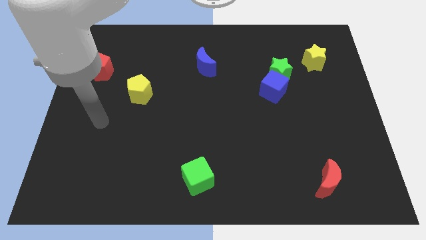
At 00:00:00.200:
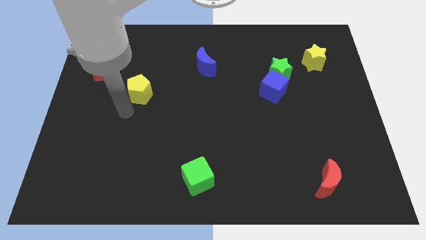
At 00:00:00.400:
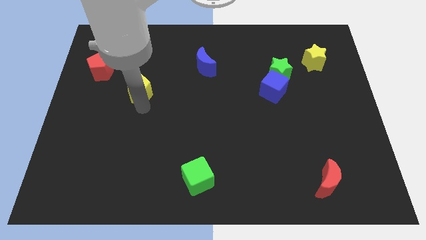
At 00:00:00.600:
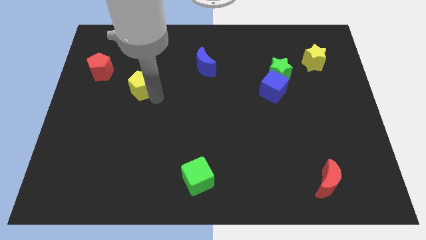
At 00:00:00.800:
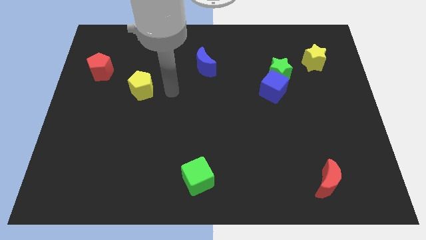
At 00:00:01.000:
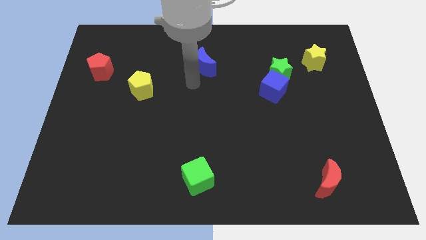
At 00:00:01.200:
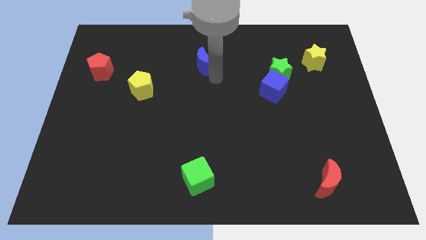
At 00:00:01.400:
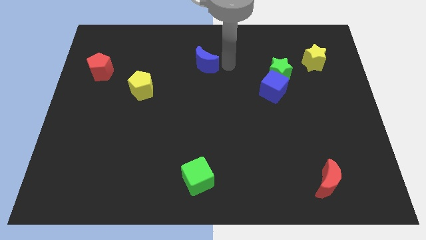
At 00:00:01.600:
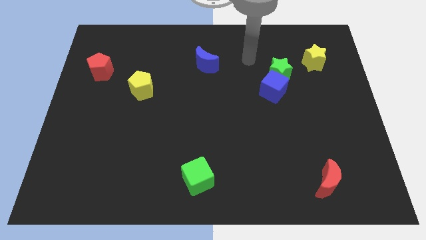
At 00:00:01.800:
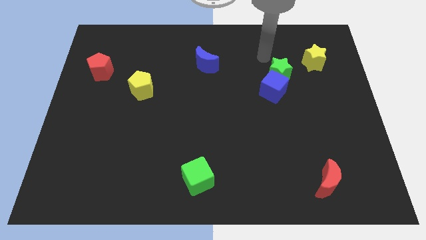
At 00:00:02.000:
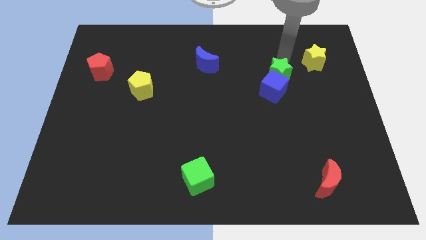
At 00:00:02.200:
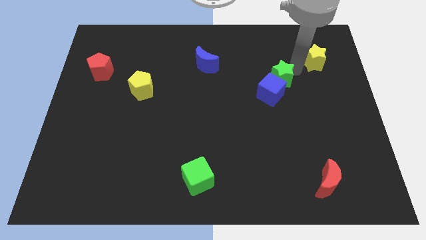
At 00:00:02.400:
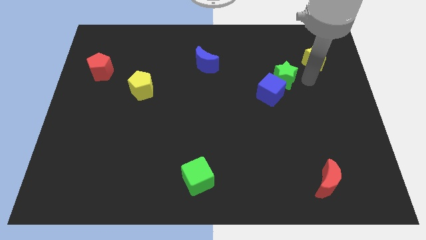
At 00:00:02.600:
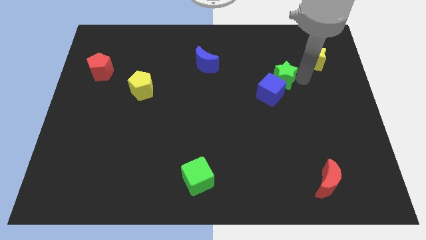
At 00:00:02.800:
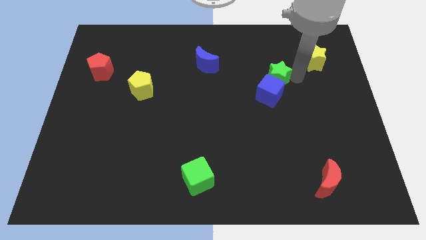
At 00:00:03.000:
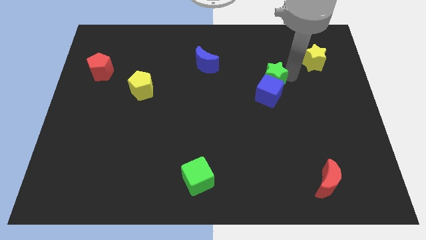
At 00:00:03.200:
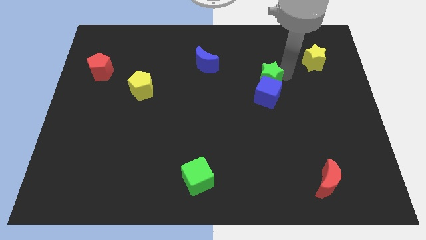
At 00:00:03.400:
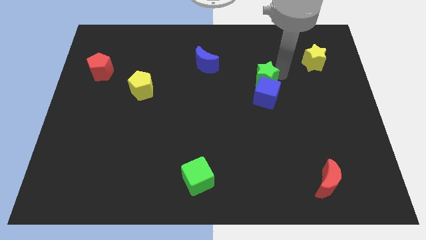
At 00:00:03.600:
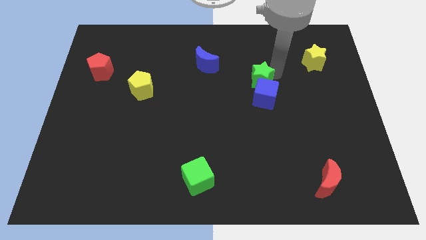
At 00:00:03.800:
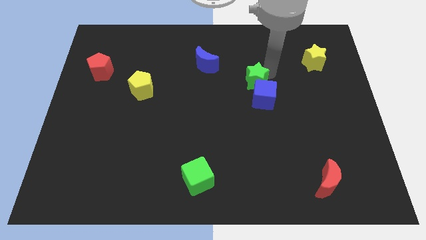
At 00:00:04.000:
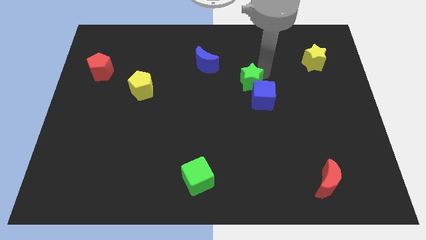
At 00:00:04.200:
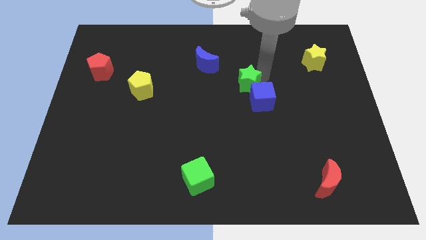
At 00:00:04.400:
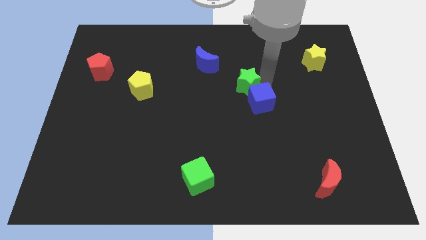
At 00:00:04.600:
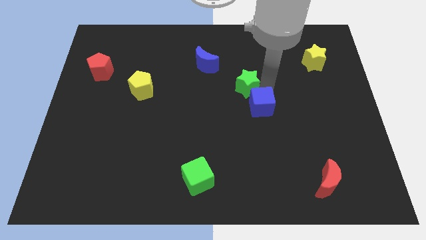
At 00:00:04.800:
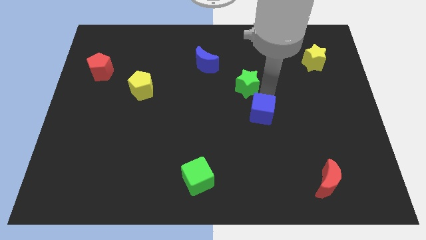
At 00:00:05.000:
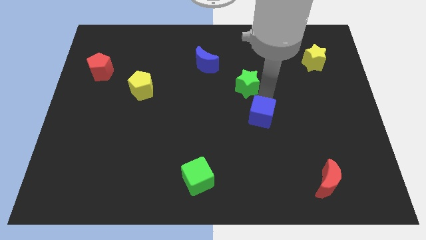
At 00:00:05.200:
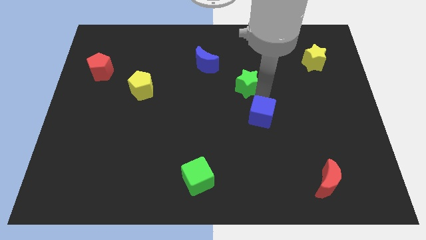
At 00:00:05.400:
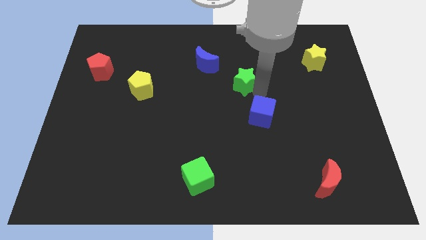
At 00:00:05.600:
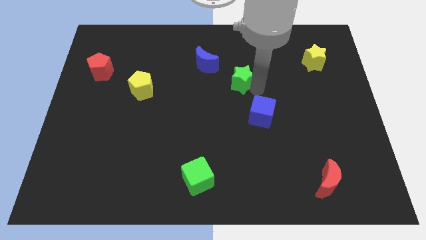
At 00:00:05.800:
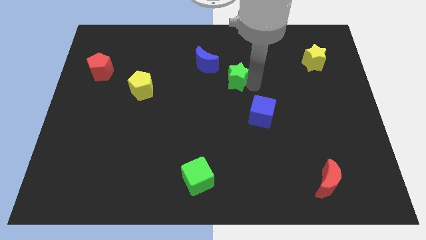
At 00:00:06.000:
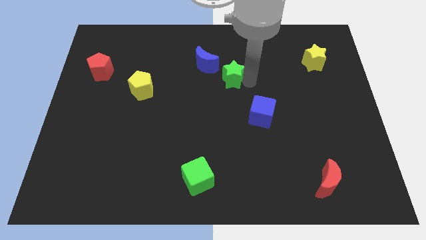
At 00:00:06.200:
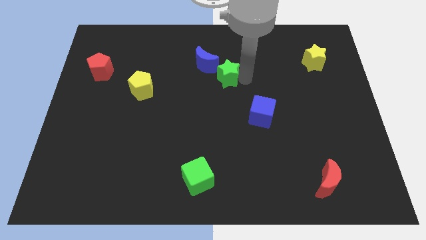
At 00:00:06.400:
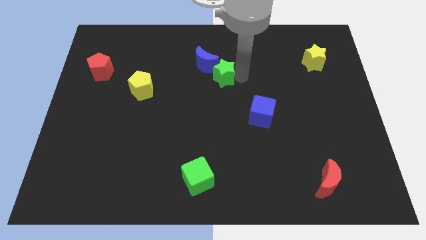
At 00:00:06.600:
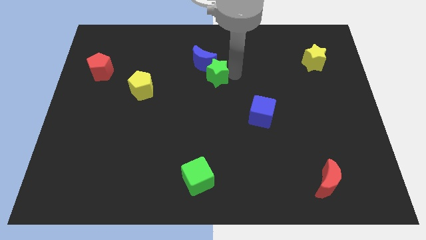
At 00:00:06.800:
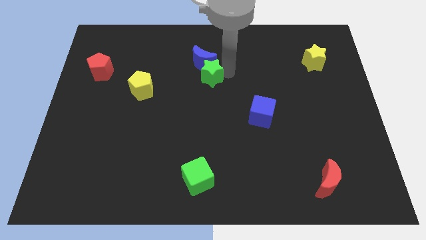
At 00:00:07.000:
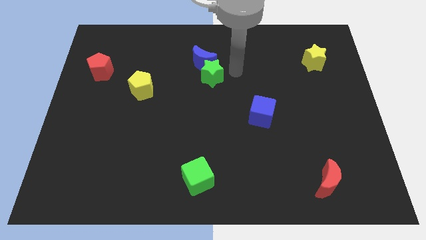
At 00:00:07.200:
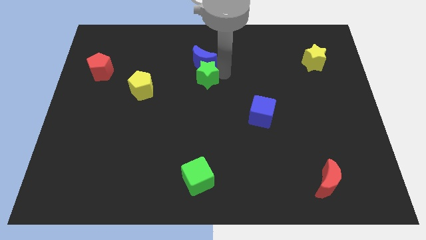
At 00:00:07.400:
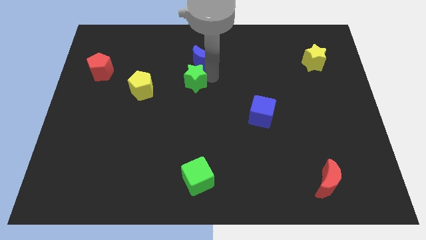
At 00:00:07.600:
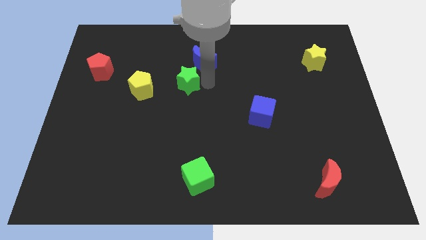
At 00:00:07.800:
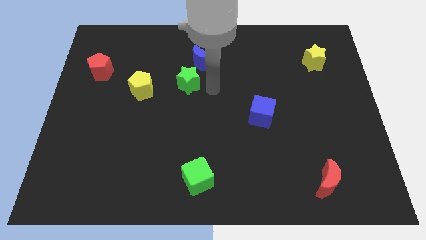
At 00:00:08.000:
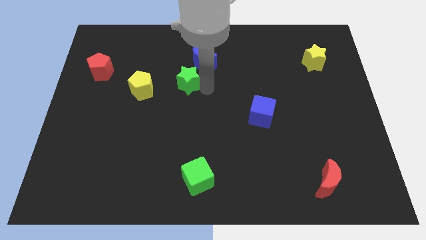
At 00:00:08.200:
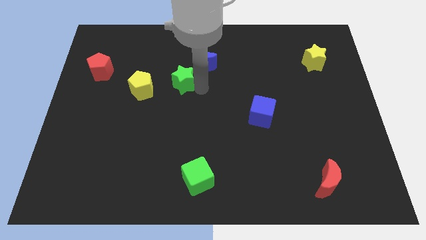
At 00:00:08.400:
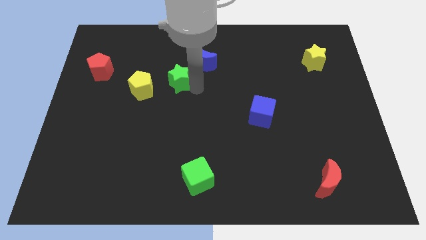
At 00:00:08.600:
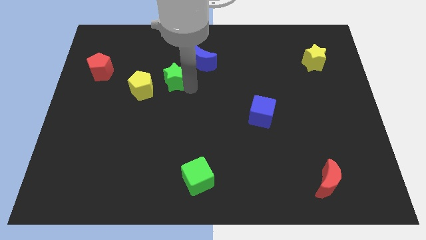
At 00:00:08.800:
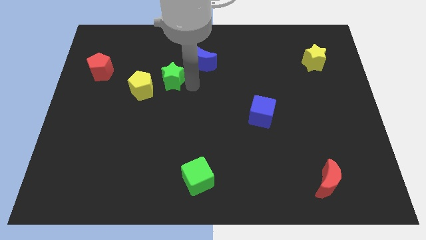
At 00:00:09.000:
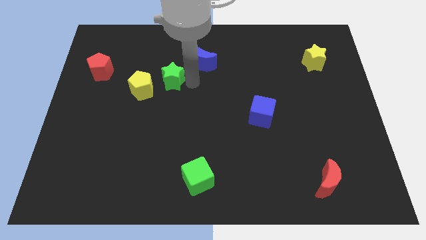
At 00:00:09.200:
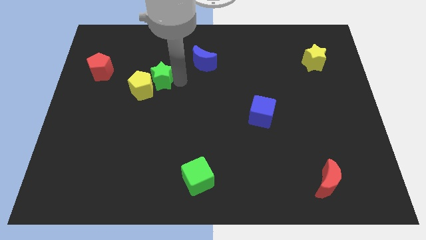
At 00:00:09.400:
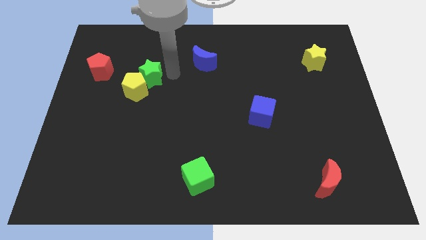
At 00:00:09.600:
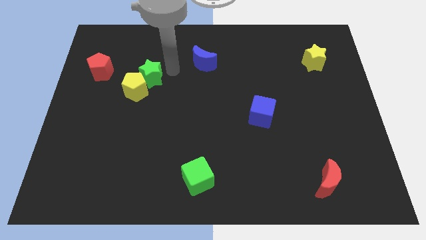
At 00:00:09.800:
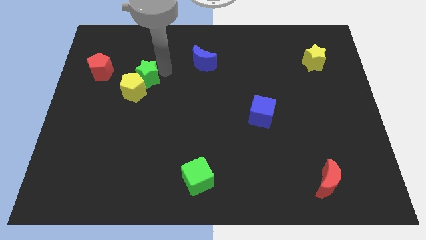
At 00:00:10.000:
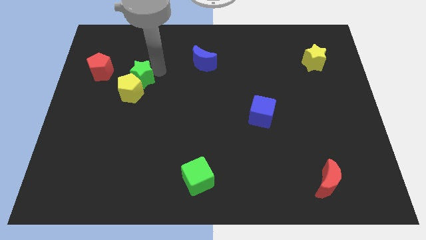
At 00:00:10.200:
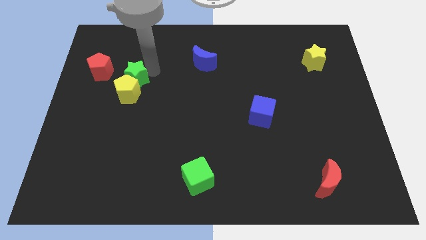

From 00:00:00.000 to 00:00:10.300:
put the green star diagonally down and to the right of the red pentagon

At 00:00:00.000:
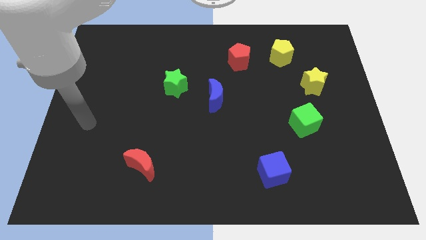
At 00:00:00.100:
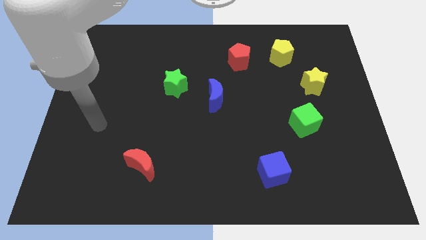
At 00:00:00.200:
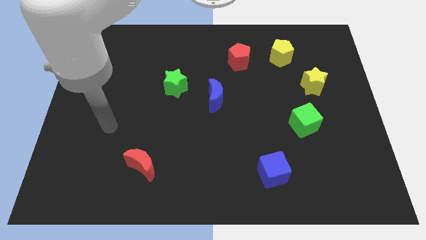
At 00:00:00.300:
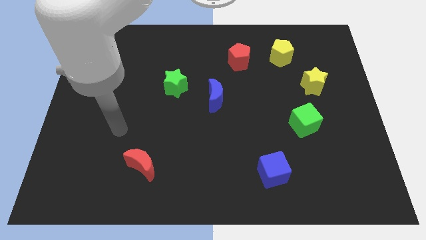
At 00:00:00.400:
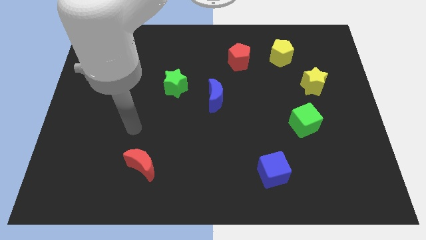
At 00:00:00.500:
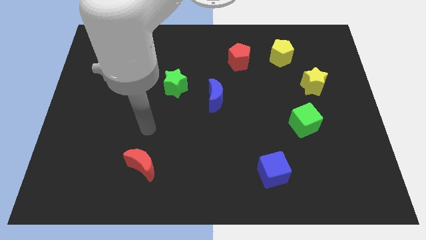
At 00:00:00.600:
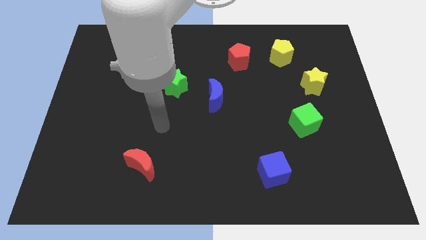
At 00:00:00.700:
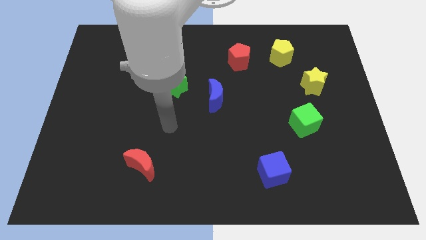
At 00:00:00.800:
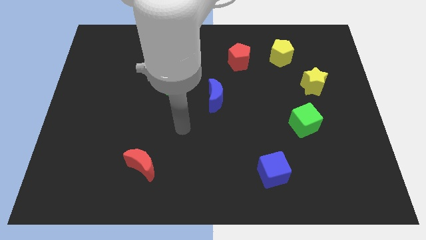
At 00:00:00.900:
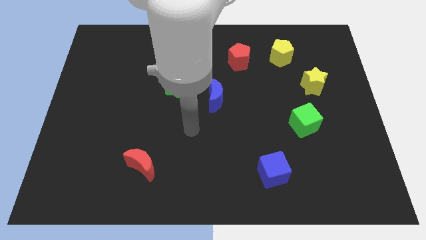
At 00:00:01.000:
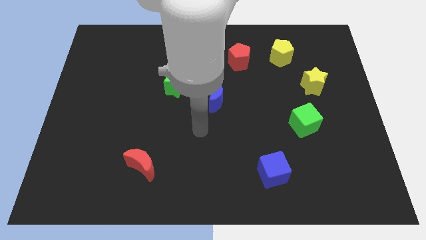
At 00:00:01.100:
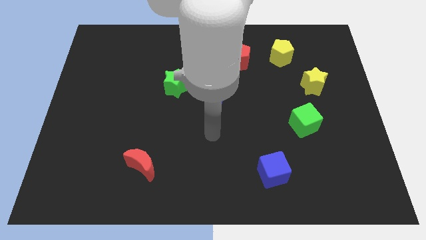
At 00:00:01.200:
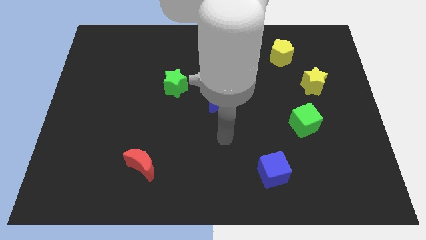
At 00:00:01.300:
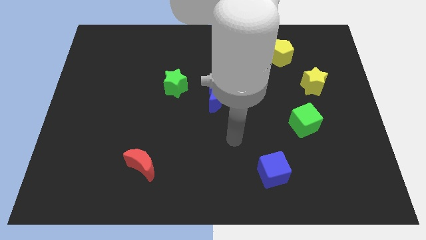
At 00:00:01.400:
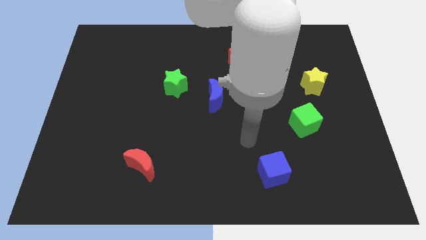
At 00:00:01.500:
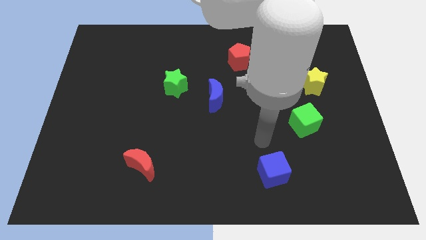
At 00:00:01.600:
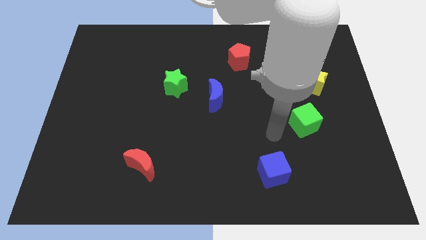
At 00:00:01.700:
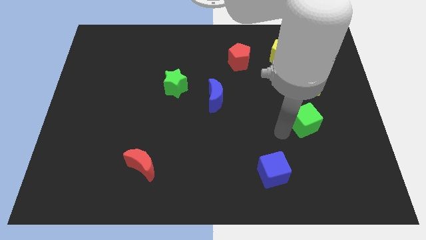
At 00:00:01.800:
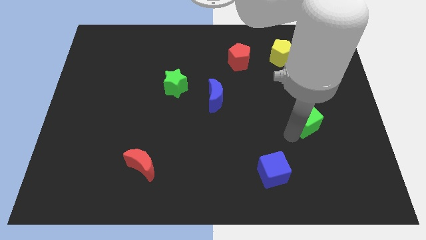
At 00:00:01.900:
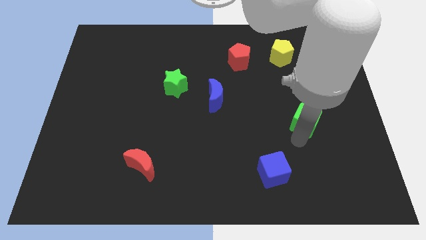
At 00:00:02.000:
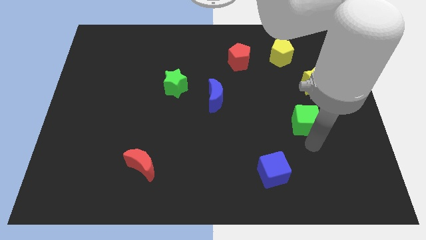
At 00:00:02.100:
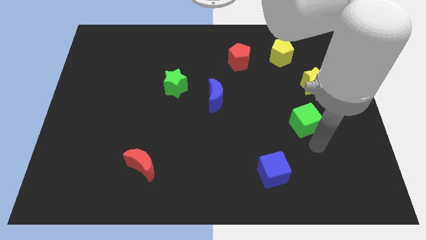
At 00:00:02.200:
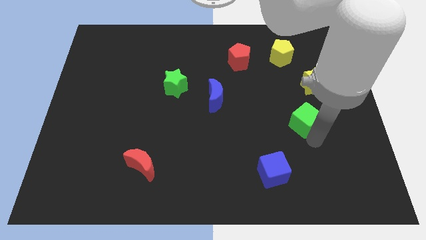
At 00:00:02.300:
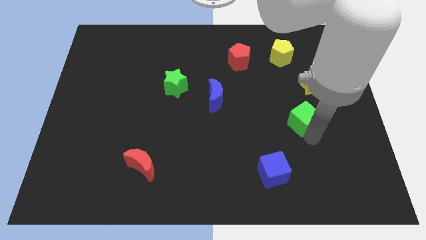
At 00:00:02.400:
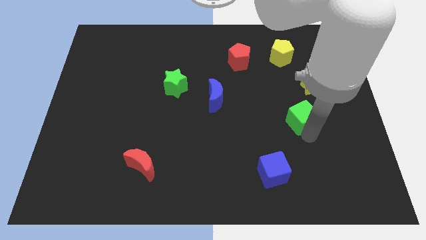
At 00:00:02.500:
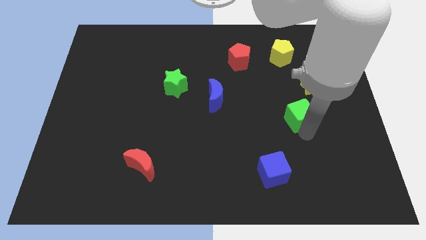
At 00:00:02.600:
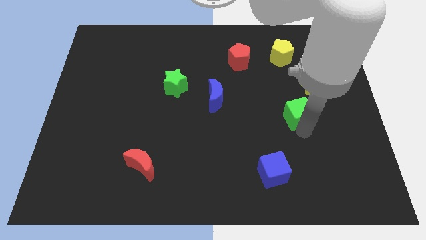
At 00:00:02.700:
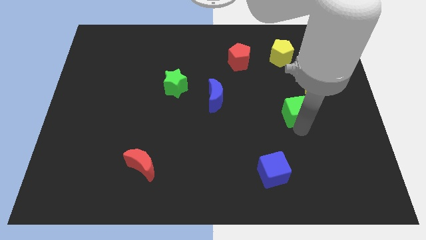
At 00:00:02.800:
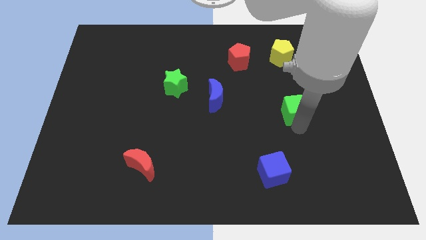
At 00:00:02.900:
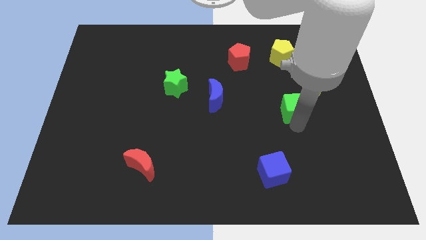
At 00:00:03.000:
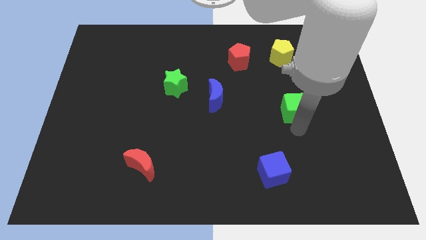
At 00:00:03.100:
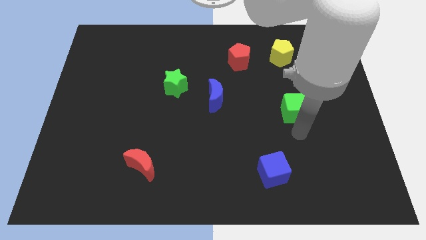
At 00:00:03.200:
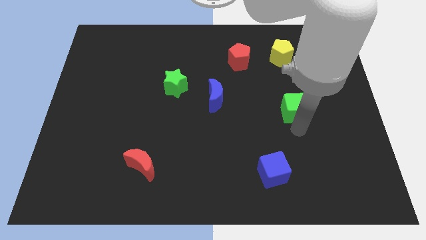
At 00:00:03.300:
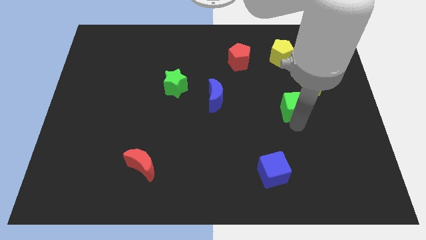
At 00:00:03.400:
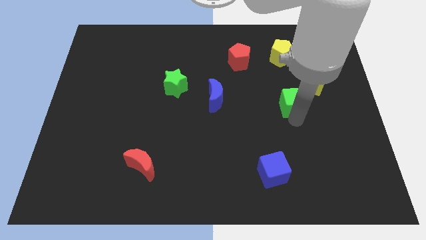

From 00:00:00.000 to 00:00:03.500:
slide the green cube below the yellow pentagon
